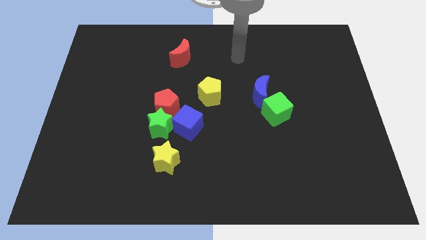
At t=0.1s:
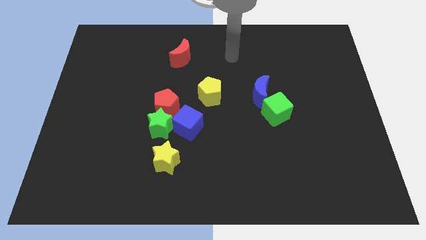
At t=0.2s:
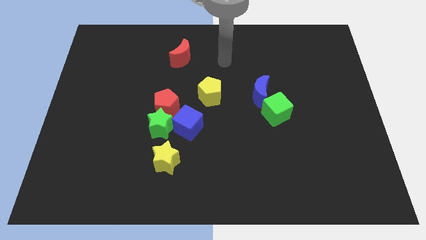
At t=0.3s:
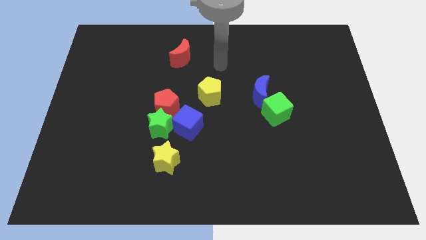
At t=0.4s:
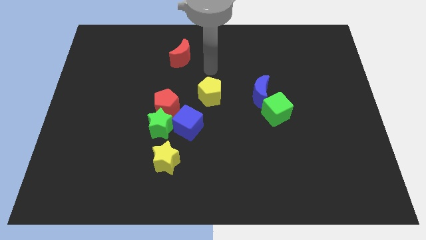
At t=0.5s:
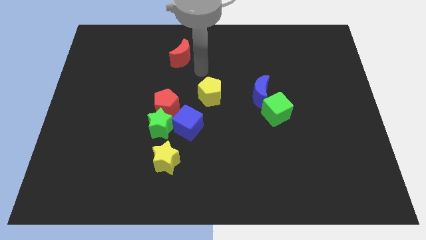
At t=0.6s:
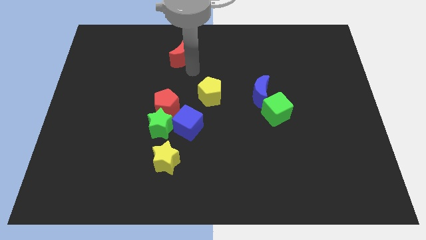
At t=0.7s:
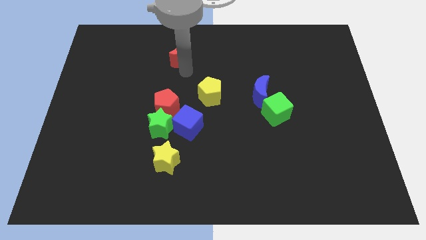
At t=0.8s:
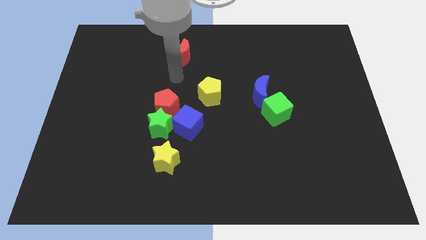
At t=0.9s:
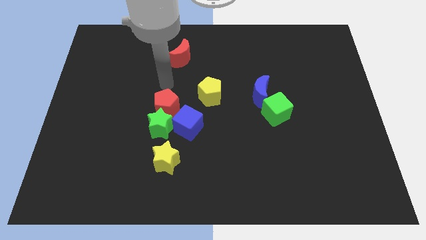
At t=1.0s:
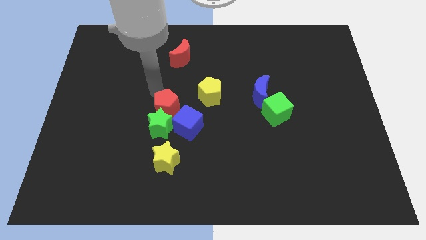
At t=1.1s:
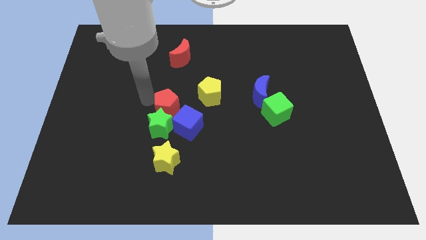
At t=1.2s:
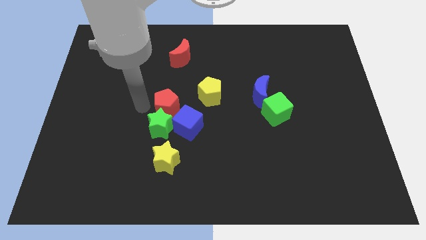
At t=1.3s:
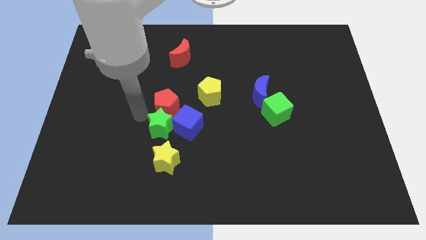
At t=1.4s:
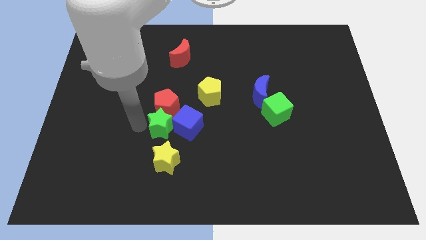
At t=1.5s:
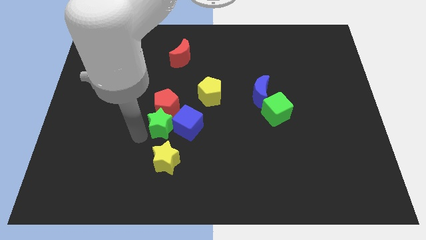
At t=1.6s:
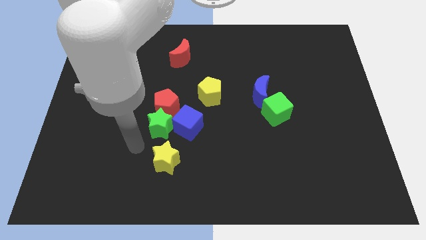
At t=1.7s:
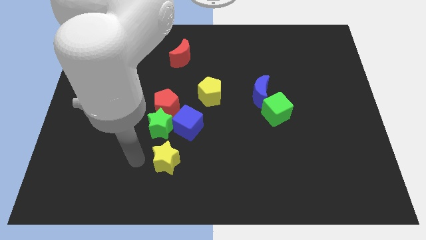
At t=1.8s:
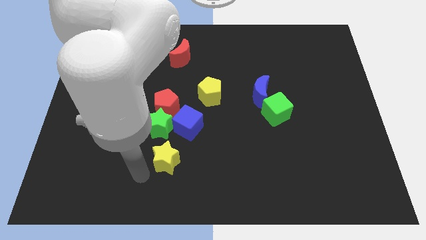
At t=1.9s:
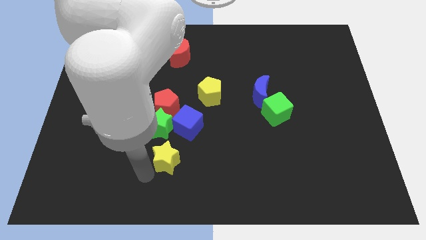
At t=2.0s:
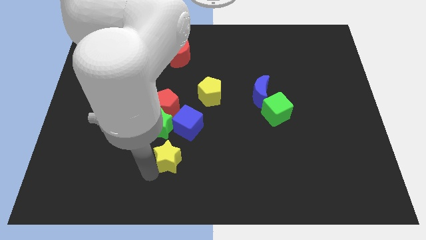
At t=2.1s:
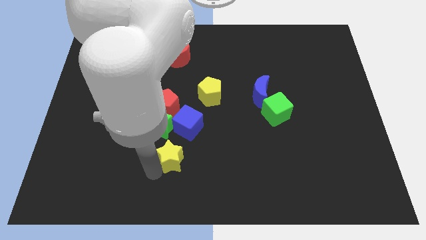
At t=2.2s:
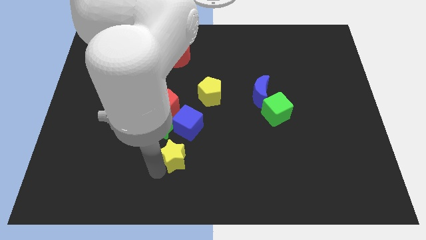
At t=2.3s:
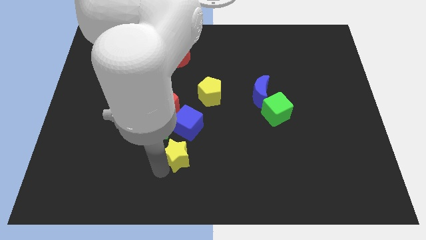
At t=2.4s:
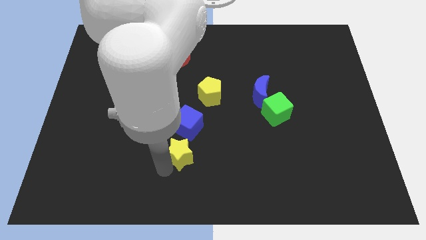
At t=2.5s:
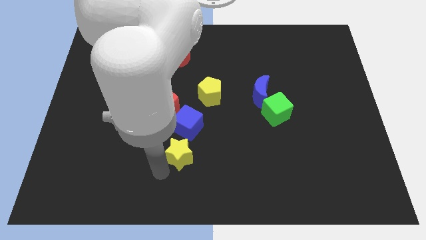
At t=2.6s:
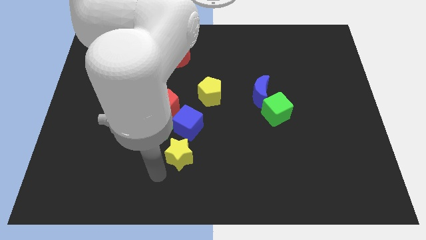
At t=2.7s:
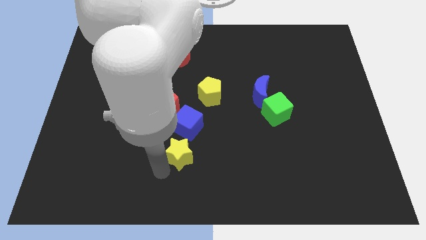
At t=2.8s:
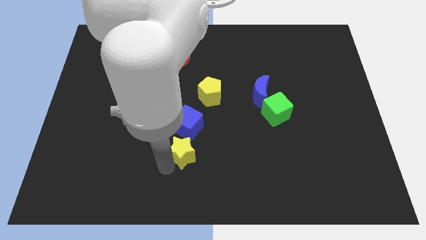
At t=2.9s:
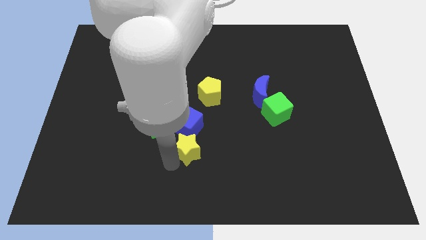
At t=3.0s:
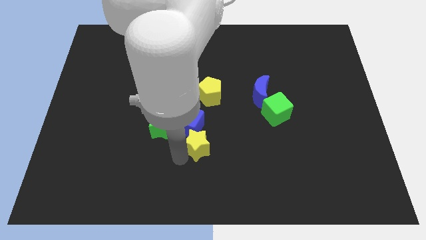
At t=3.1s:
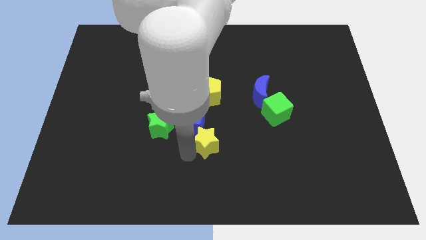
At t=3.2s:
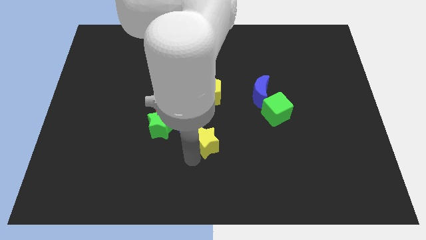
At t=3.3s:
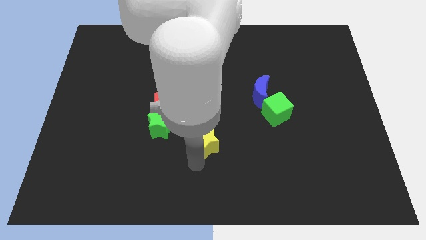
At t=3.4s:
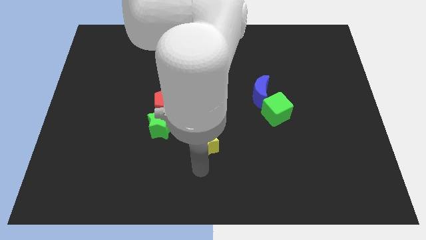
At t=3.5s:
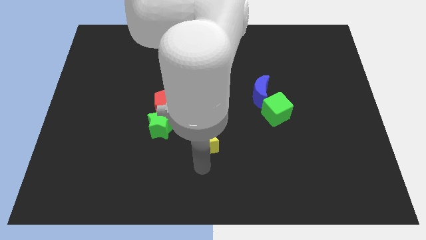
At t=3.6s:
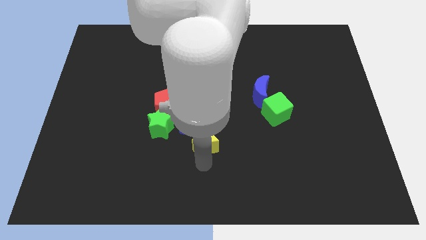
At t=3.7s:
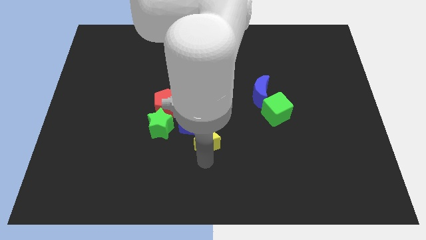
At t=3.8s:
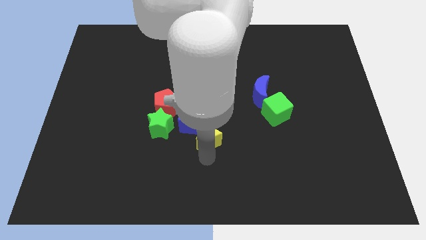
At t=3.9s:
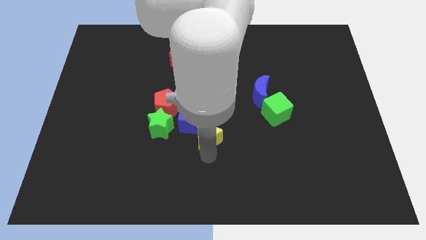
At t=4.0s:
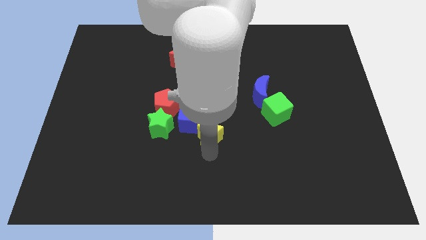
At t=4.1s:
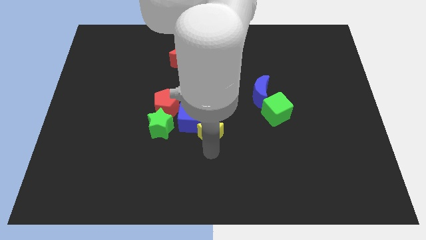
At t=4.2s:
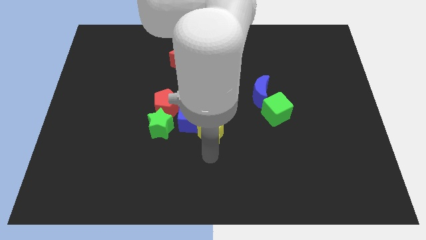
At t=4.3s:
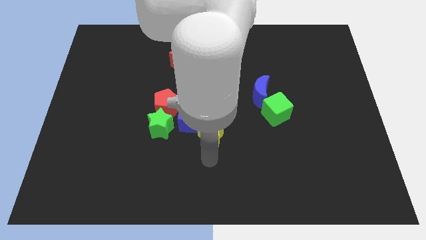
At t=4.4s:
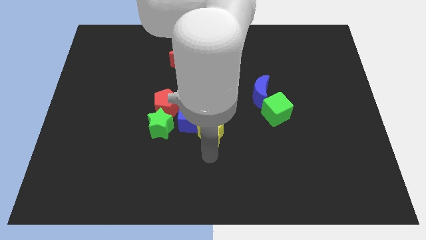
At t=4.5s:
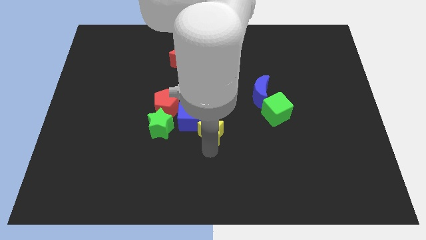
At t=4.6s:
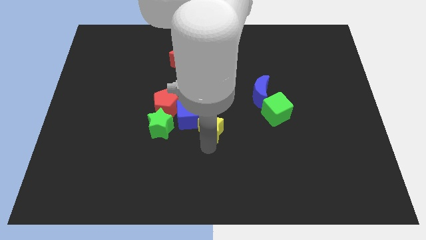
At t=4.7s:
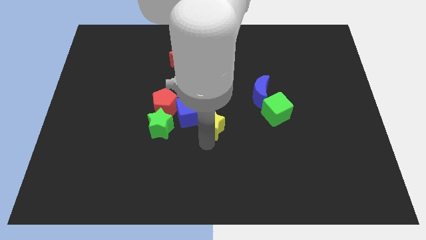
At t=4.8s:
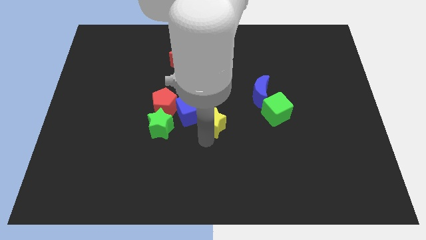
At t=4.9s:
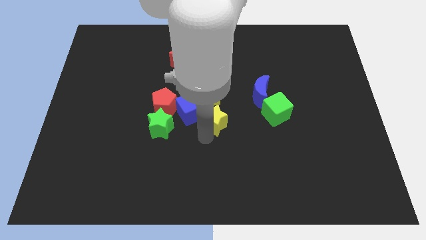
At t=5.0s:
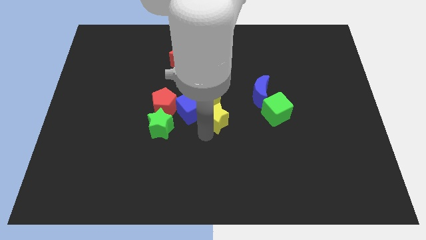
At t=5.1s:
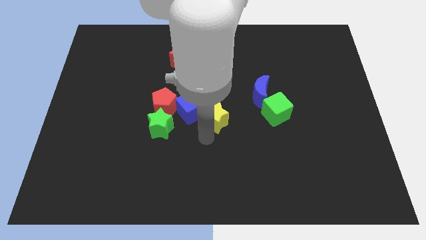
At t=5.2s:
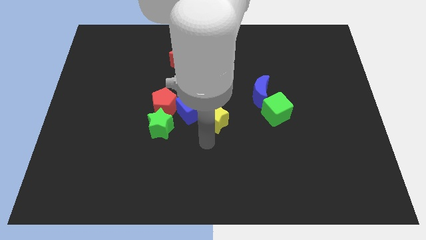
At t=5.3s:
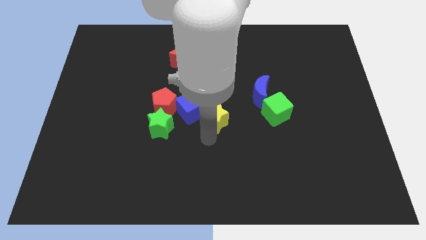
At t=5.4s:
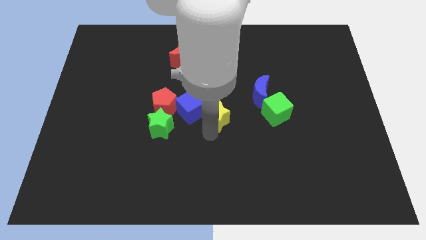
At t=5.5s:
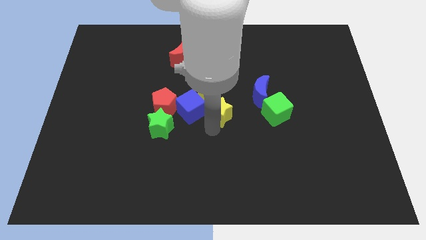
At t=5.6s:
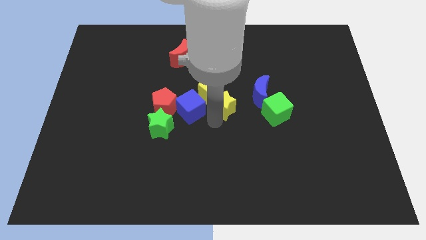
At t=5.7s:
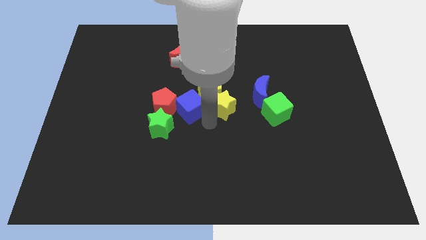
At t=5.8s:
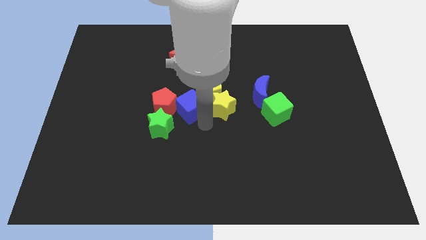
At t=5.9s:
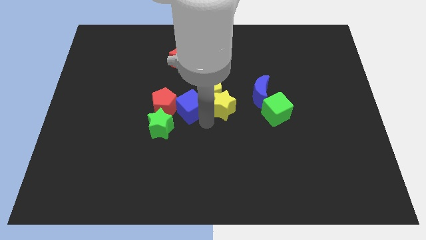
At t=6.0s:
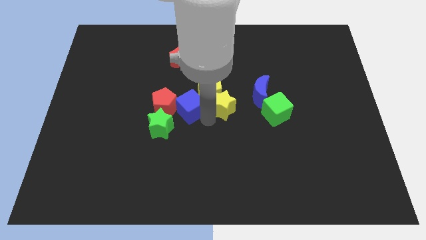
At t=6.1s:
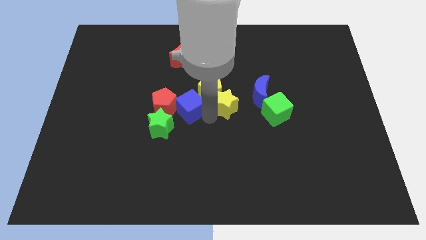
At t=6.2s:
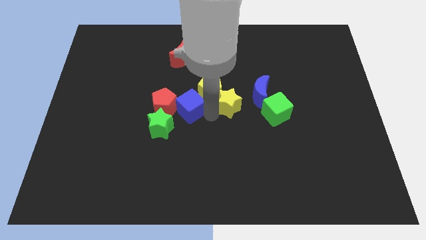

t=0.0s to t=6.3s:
push the yellow star upwards and to the right diagonally

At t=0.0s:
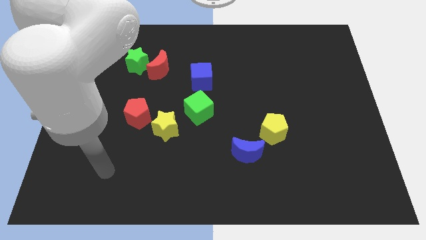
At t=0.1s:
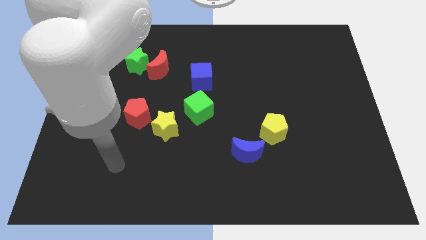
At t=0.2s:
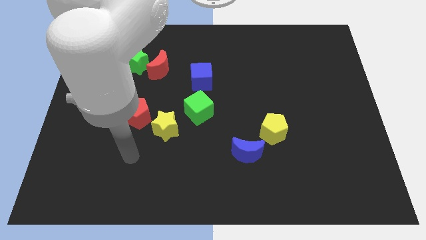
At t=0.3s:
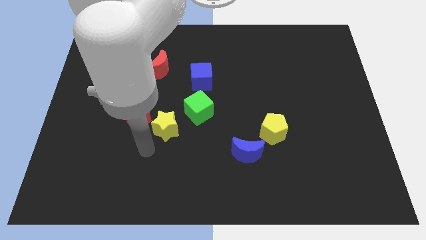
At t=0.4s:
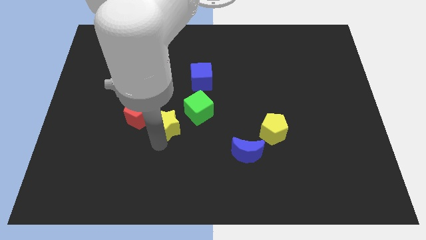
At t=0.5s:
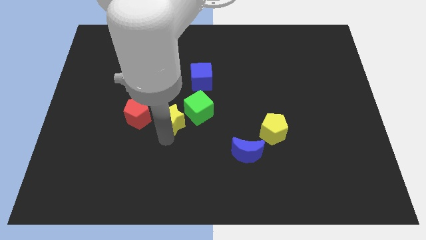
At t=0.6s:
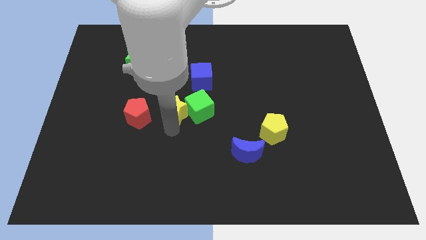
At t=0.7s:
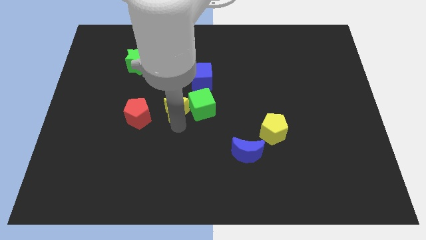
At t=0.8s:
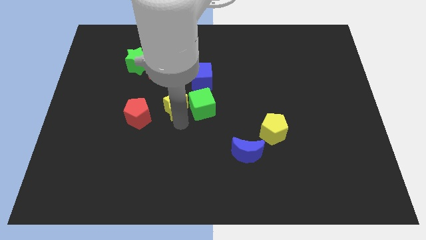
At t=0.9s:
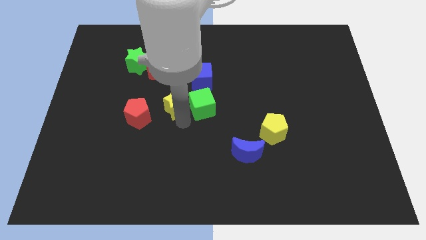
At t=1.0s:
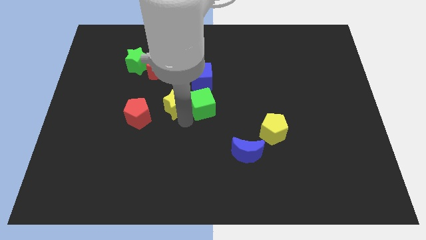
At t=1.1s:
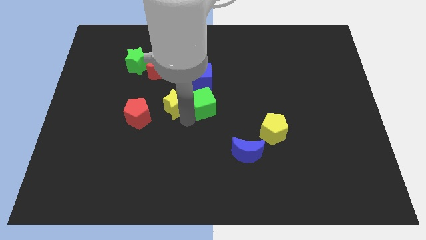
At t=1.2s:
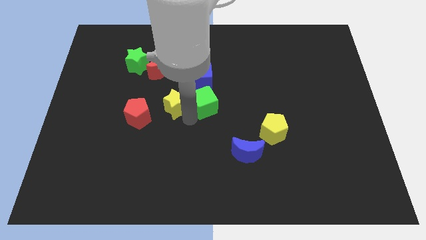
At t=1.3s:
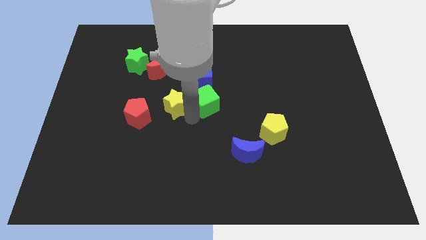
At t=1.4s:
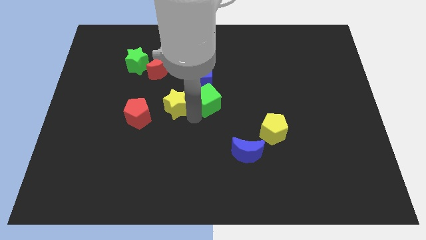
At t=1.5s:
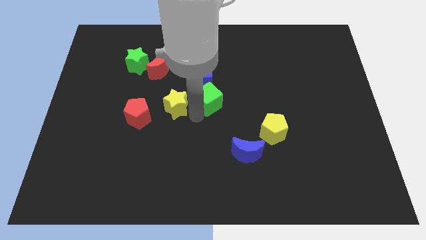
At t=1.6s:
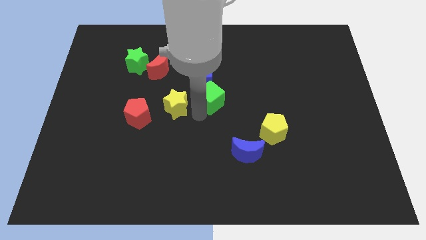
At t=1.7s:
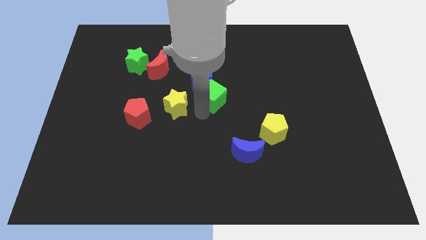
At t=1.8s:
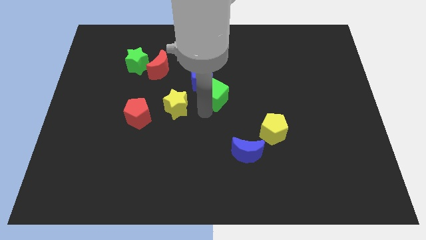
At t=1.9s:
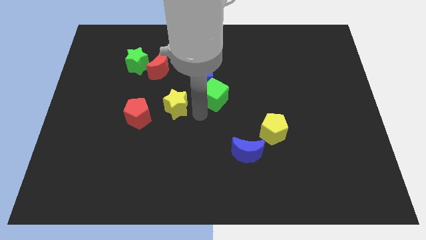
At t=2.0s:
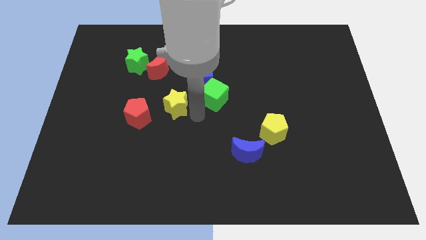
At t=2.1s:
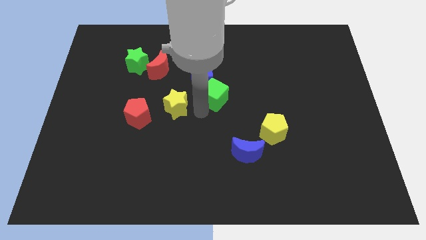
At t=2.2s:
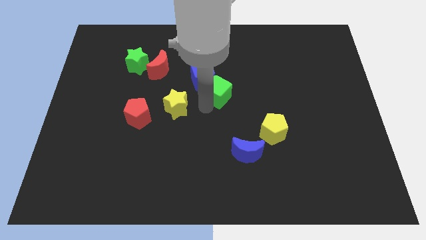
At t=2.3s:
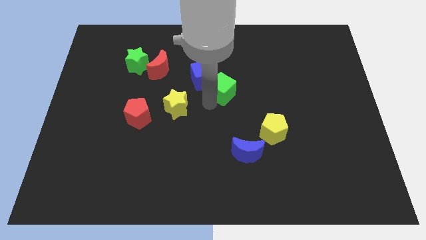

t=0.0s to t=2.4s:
slightly push the green cube upwards and to the right
